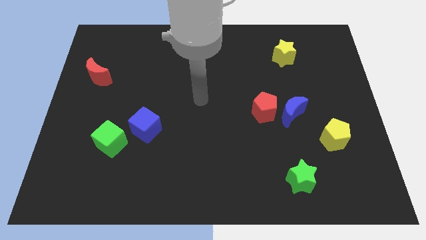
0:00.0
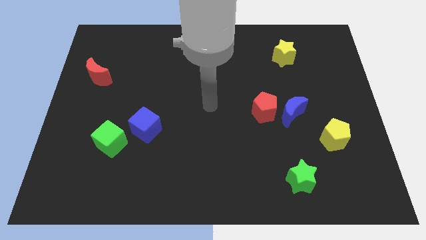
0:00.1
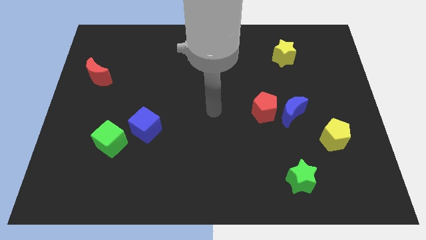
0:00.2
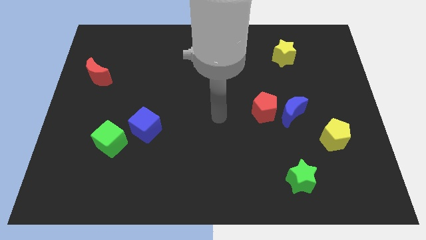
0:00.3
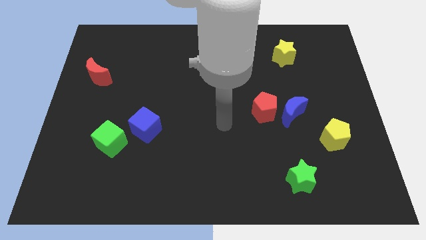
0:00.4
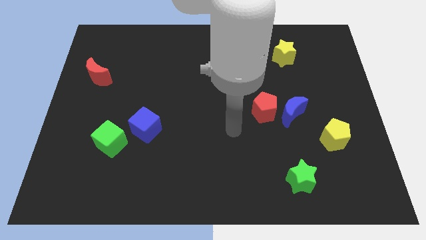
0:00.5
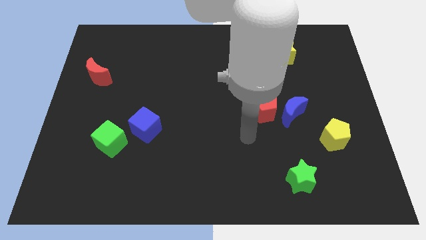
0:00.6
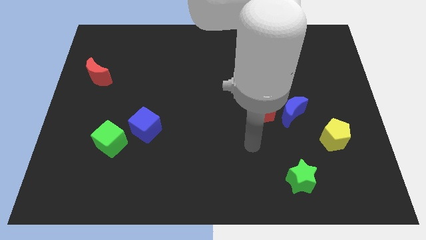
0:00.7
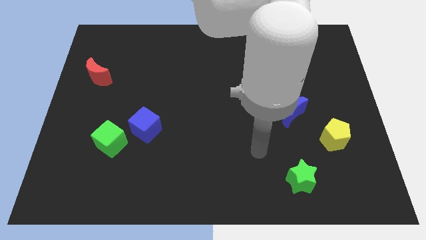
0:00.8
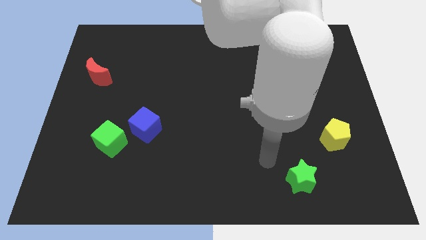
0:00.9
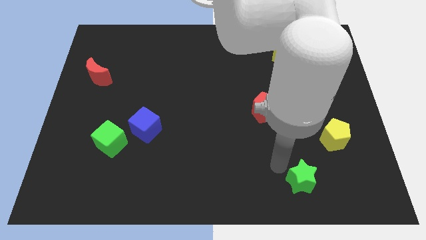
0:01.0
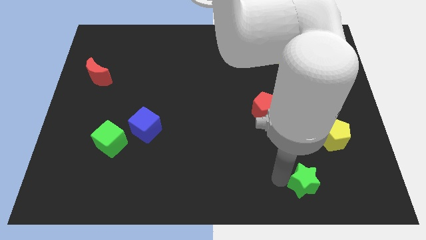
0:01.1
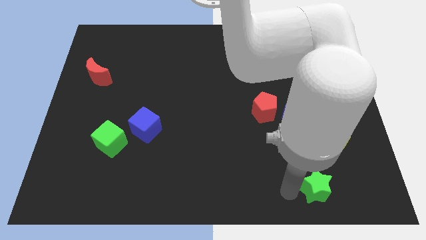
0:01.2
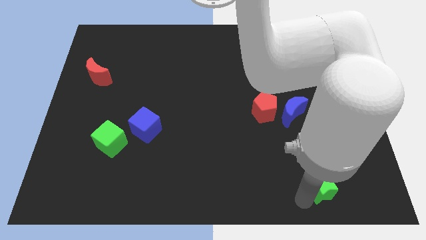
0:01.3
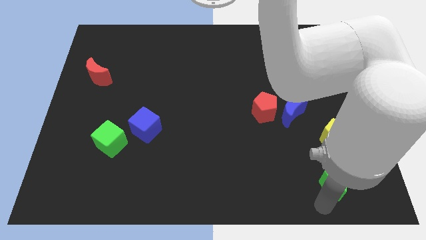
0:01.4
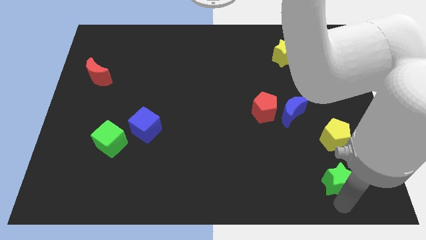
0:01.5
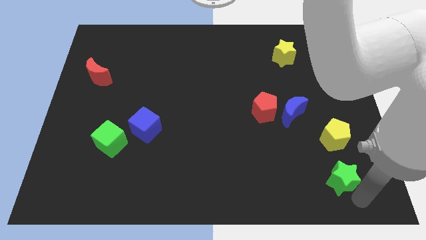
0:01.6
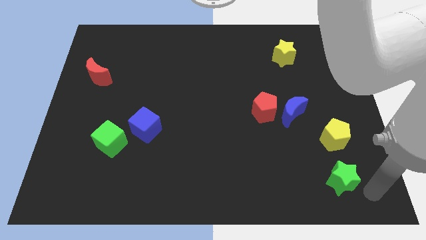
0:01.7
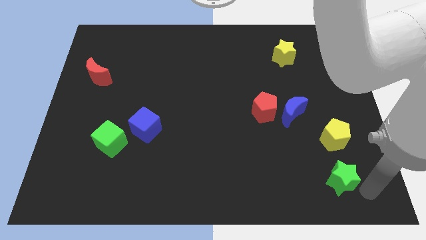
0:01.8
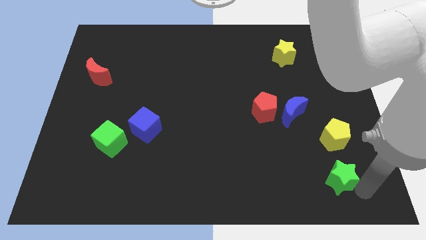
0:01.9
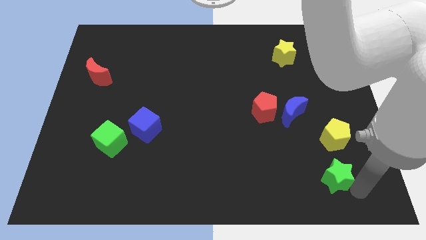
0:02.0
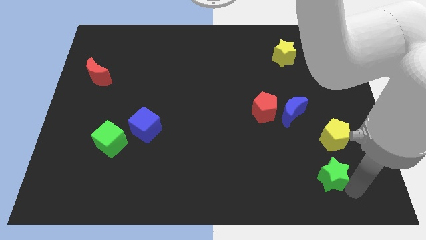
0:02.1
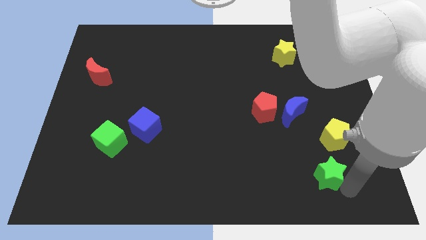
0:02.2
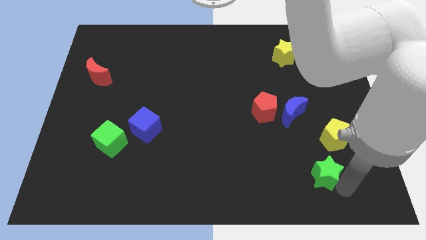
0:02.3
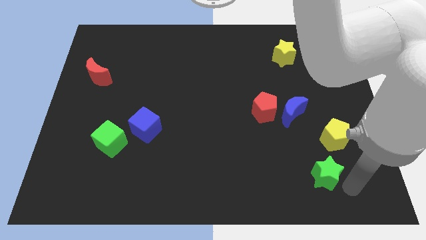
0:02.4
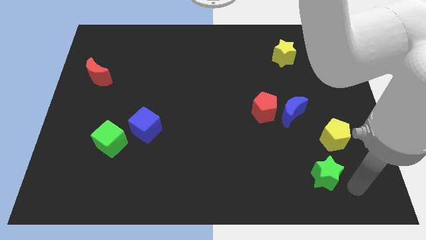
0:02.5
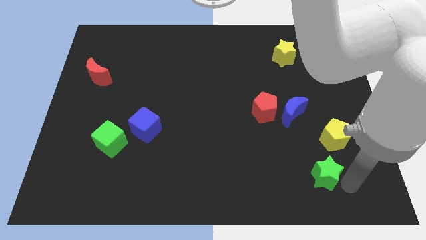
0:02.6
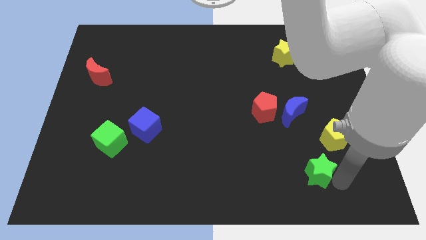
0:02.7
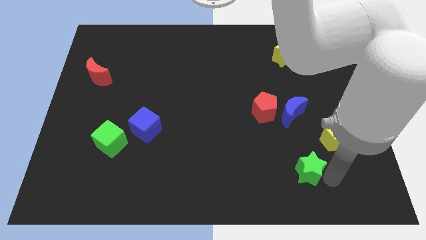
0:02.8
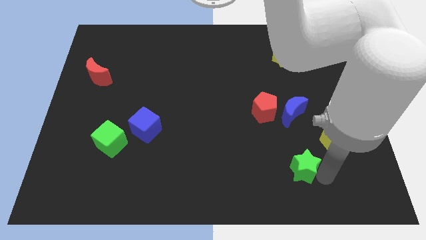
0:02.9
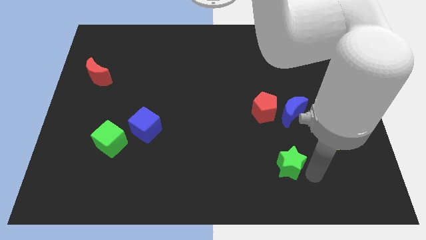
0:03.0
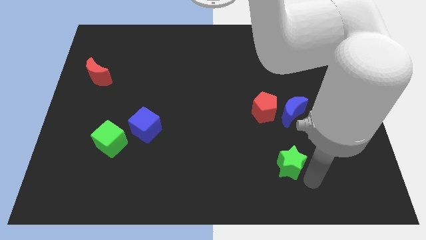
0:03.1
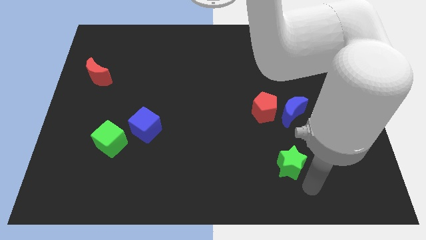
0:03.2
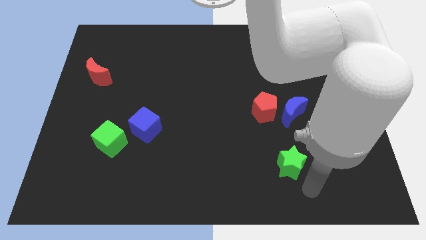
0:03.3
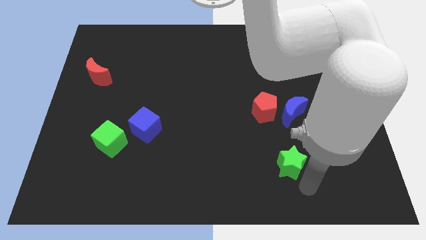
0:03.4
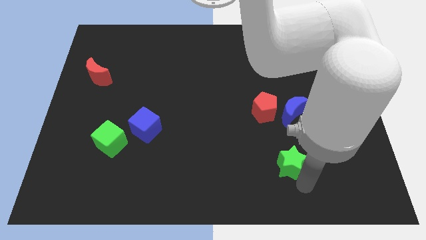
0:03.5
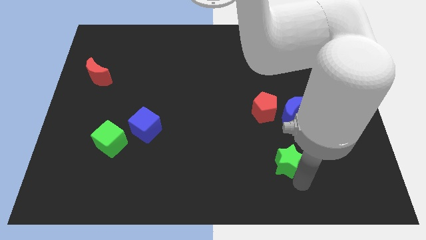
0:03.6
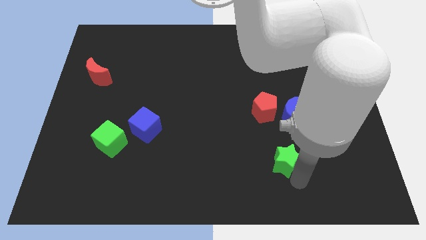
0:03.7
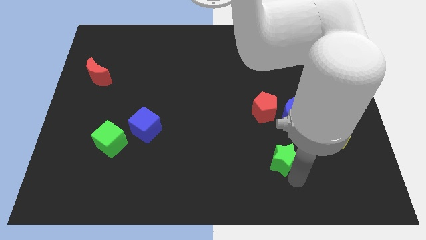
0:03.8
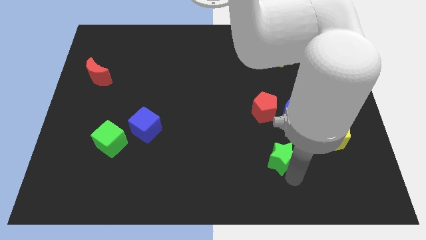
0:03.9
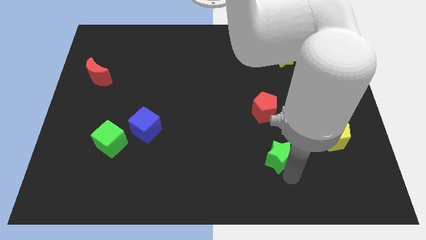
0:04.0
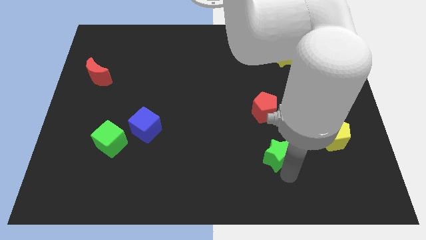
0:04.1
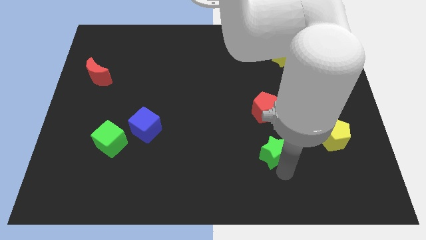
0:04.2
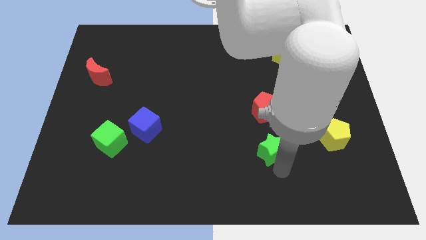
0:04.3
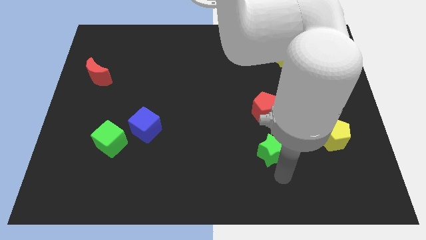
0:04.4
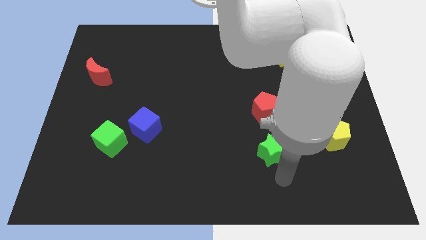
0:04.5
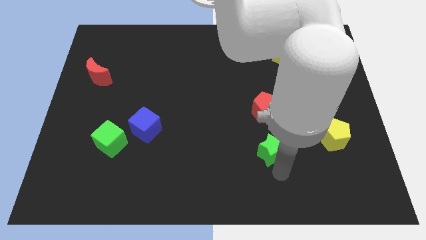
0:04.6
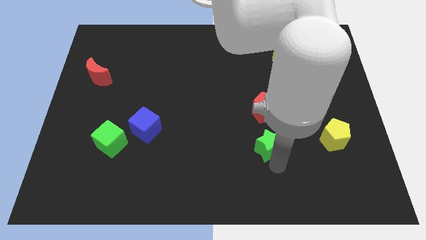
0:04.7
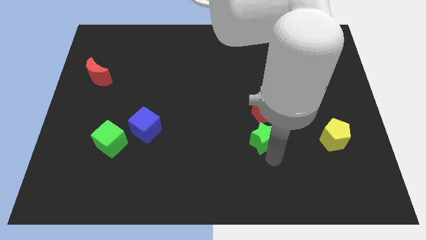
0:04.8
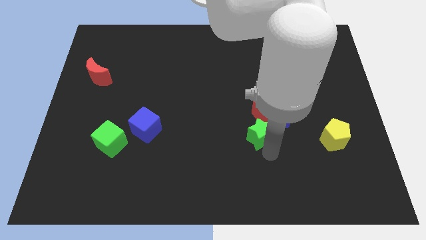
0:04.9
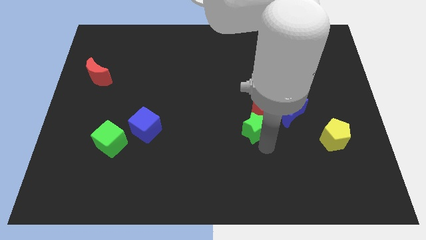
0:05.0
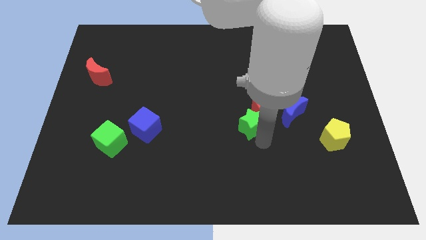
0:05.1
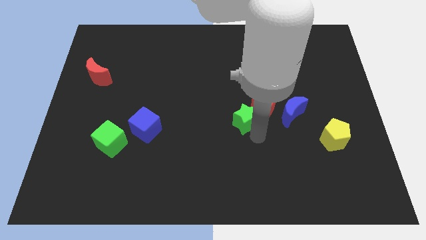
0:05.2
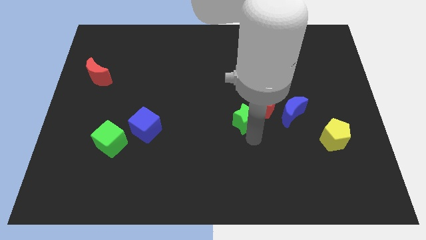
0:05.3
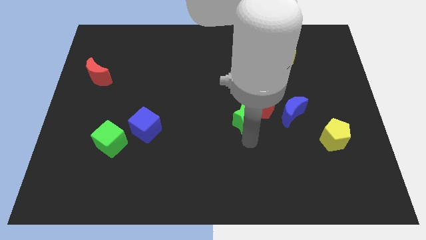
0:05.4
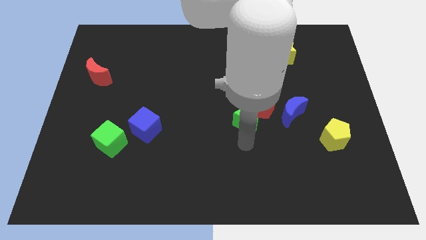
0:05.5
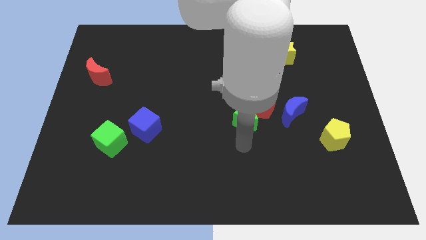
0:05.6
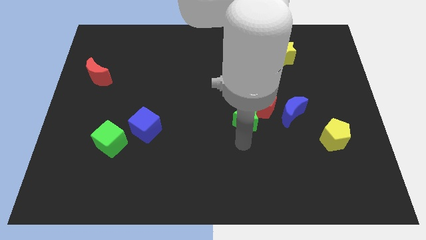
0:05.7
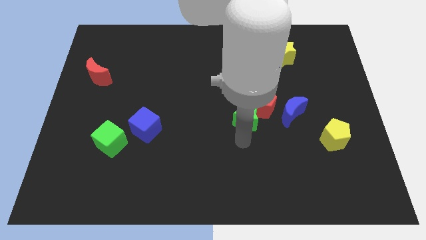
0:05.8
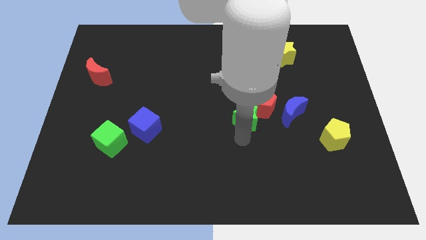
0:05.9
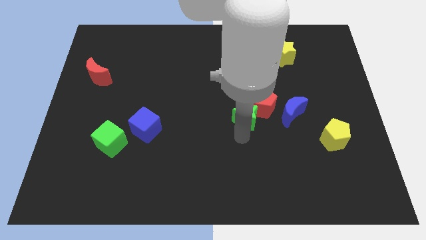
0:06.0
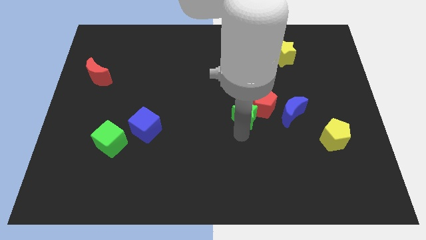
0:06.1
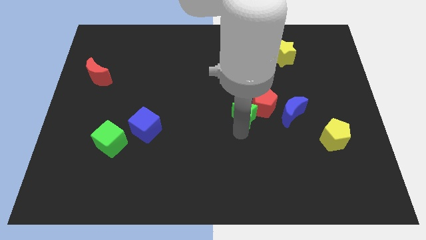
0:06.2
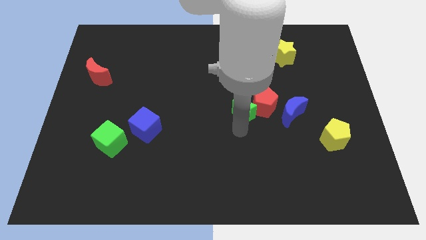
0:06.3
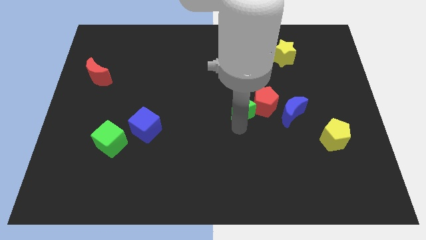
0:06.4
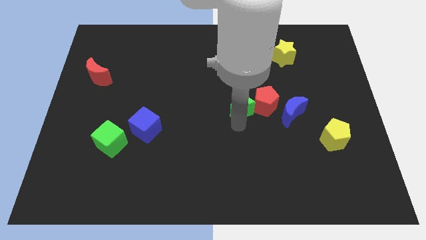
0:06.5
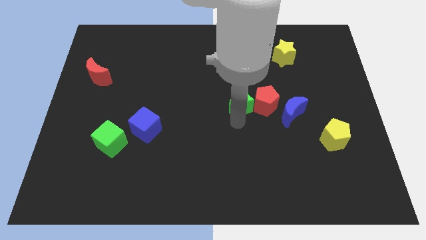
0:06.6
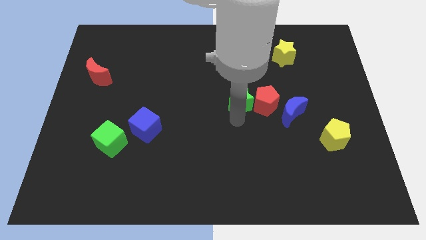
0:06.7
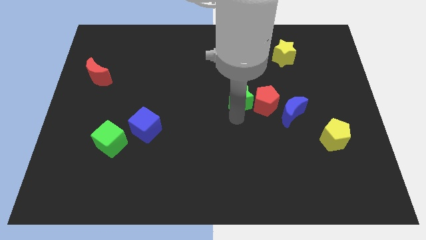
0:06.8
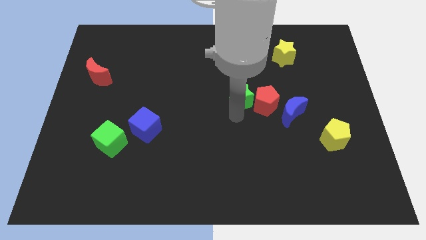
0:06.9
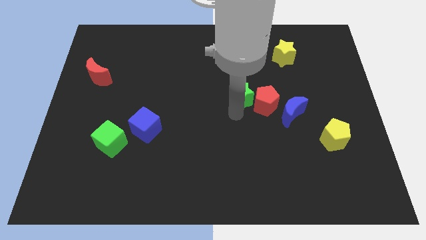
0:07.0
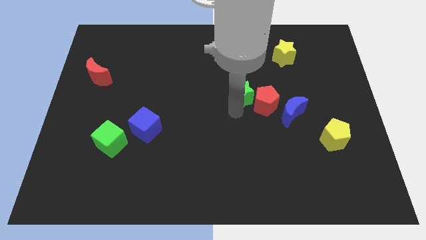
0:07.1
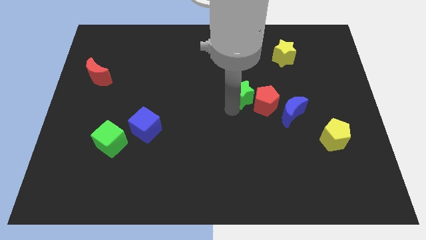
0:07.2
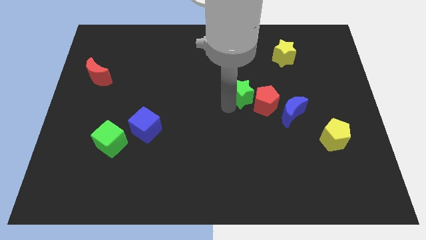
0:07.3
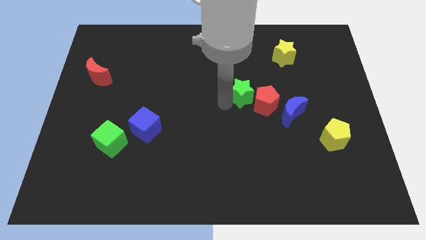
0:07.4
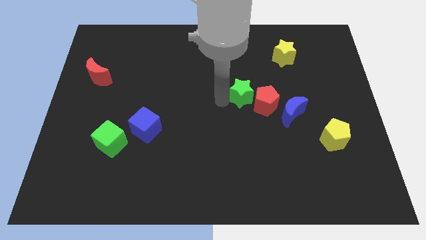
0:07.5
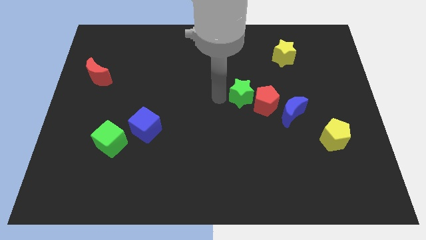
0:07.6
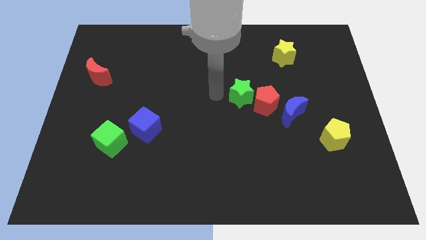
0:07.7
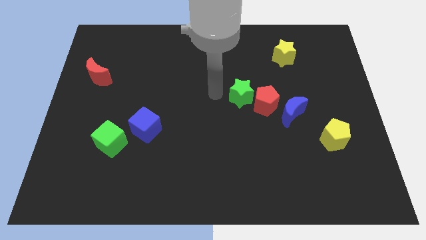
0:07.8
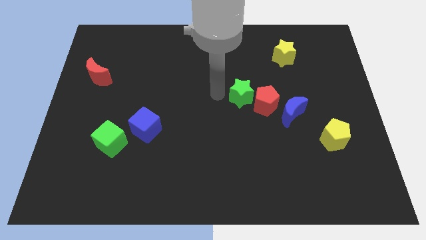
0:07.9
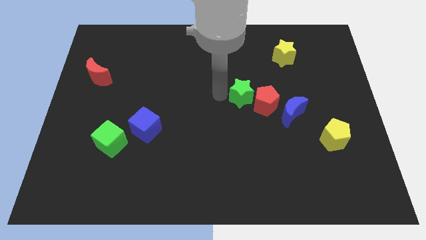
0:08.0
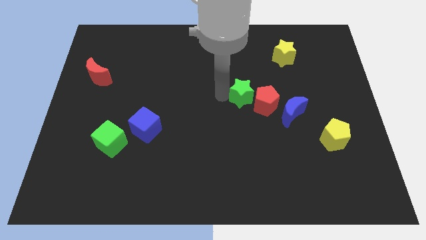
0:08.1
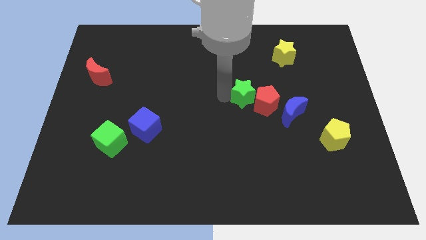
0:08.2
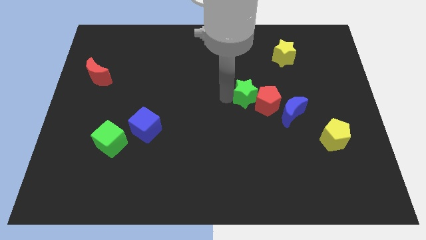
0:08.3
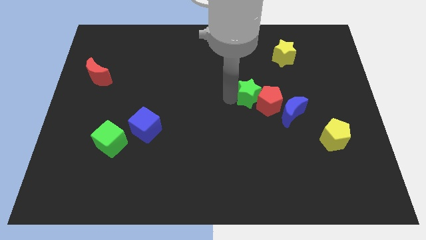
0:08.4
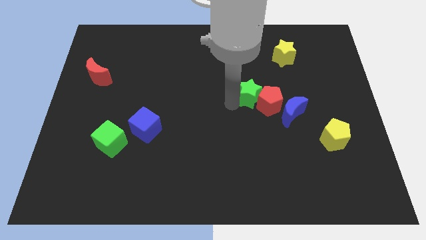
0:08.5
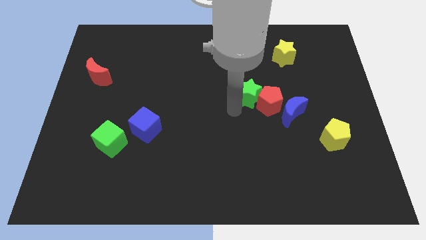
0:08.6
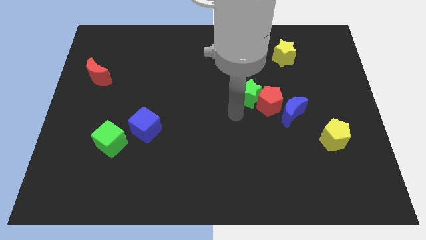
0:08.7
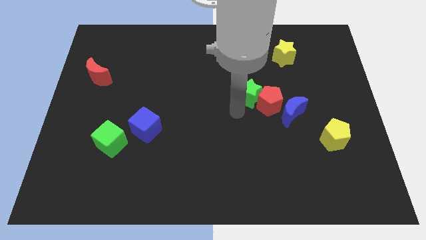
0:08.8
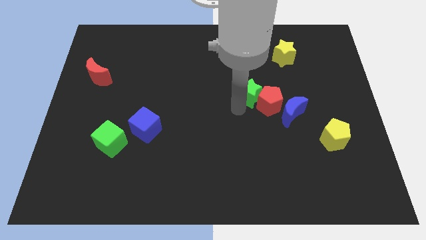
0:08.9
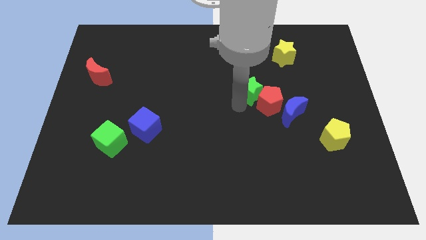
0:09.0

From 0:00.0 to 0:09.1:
move the green star above the red pentagon
